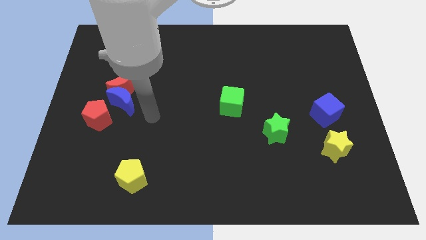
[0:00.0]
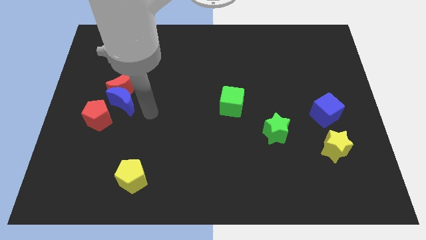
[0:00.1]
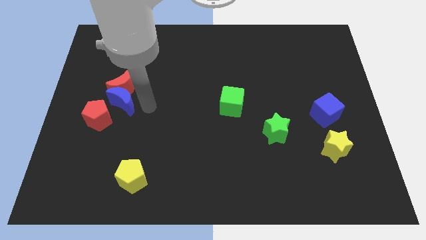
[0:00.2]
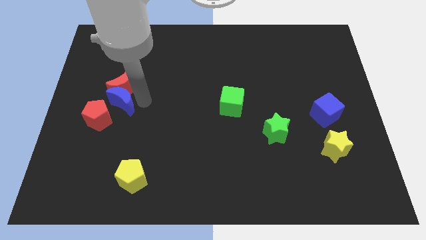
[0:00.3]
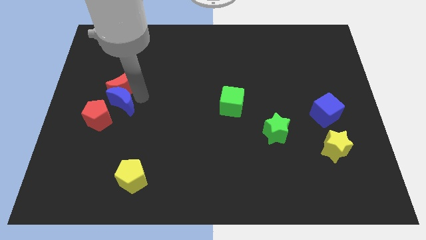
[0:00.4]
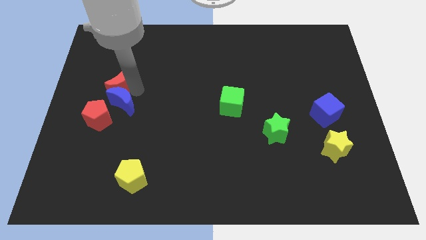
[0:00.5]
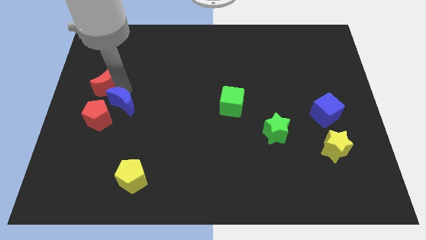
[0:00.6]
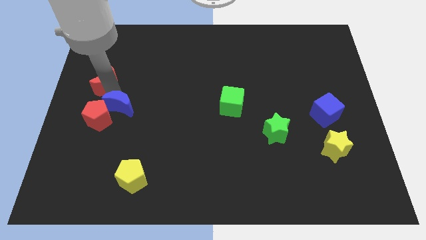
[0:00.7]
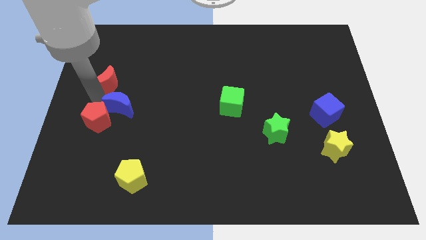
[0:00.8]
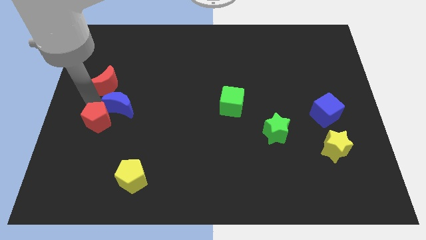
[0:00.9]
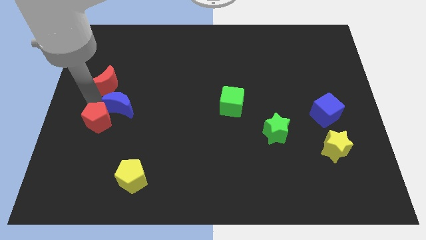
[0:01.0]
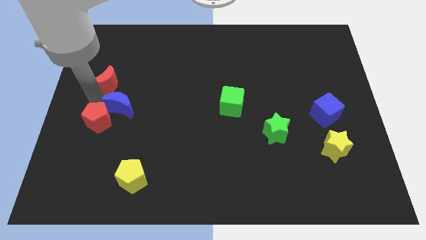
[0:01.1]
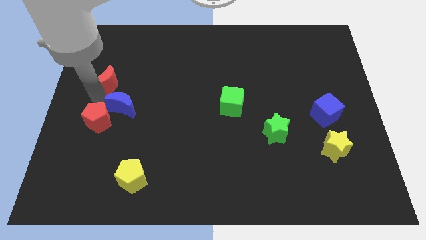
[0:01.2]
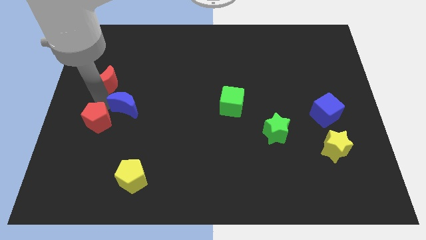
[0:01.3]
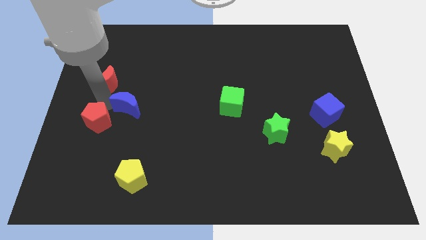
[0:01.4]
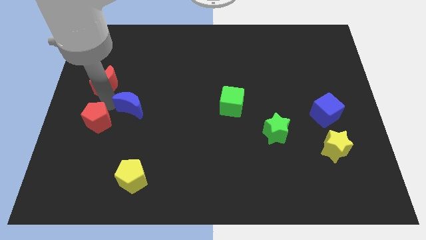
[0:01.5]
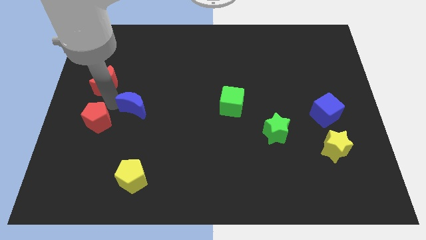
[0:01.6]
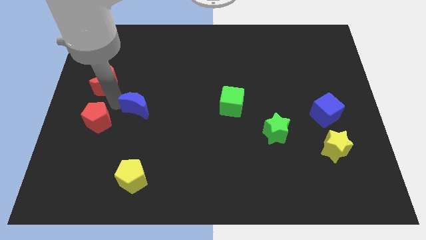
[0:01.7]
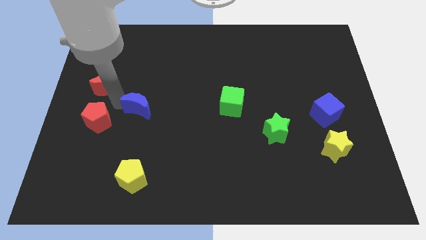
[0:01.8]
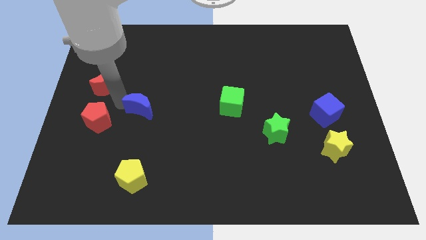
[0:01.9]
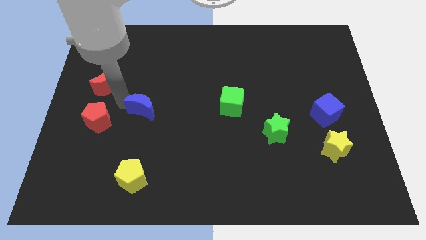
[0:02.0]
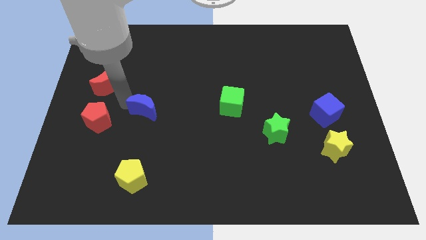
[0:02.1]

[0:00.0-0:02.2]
separate the blue moon from the red moon and red pentagon

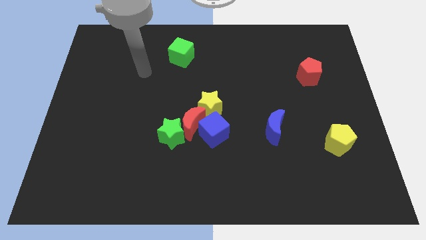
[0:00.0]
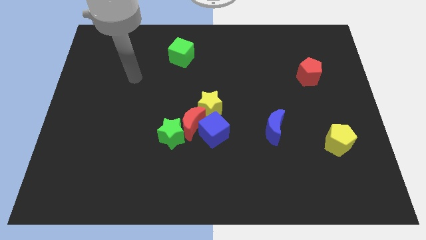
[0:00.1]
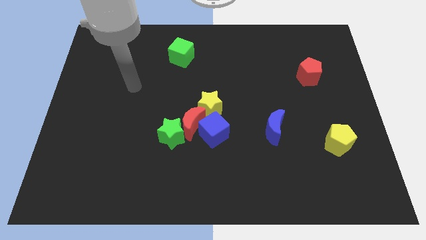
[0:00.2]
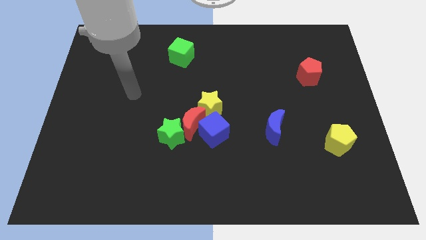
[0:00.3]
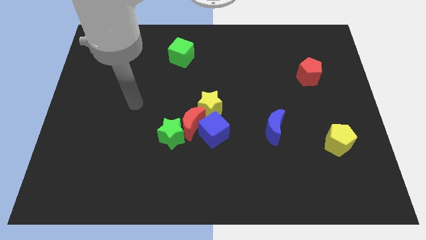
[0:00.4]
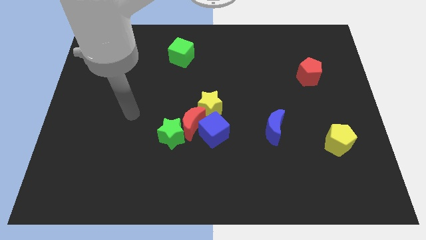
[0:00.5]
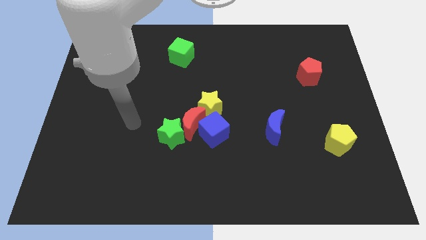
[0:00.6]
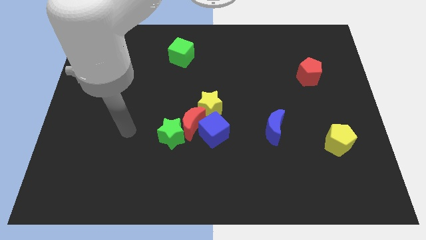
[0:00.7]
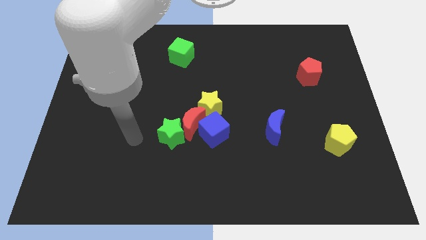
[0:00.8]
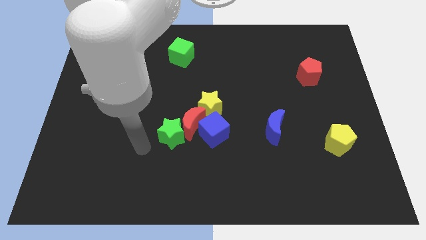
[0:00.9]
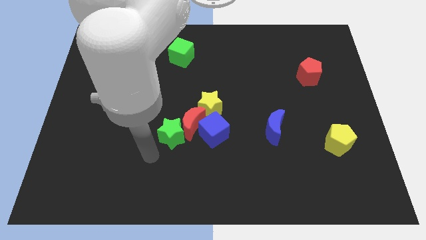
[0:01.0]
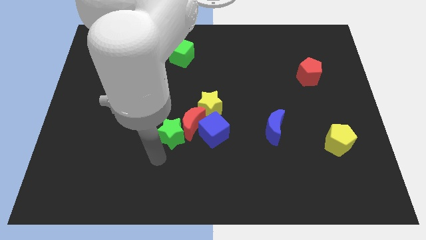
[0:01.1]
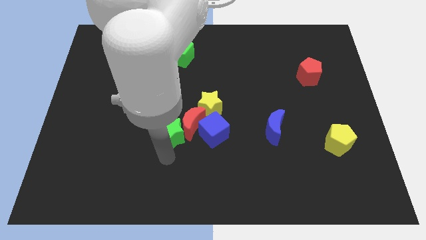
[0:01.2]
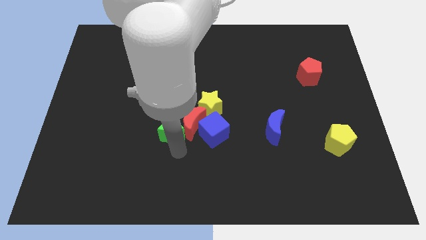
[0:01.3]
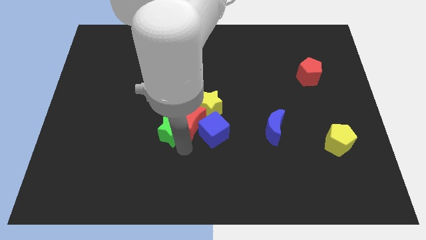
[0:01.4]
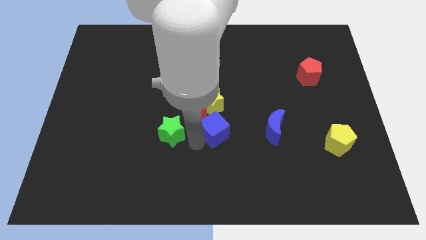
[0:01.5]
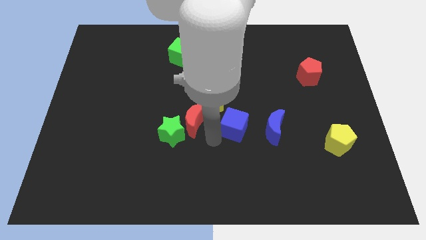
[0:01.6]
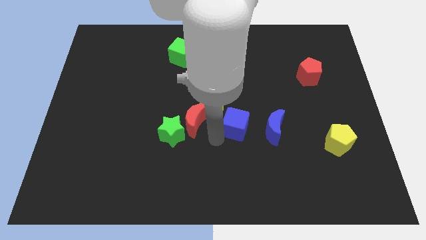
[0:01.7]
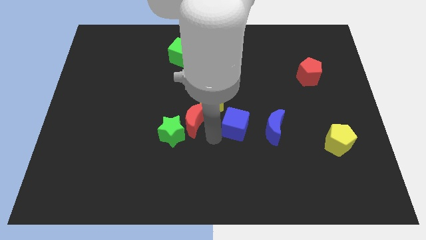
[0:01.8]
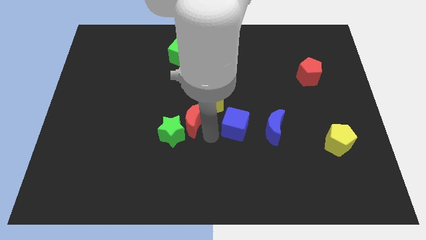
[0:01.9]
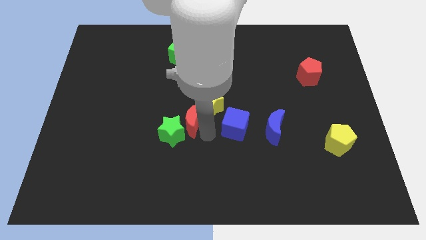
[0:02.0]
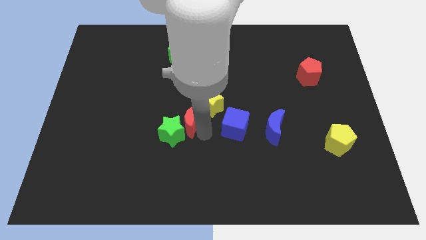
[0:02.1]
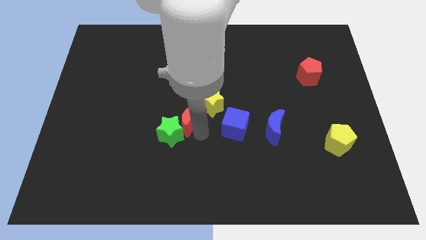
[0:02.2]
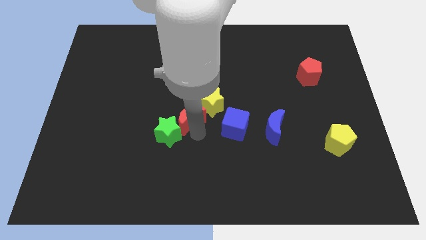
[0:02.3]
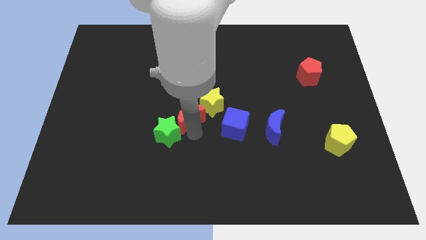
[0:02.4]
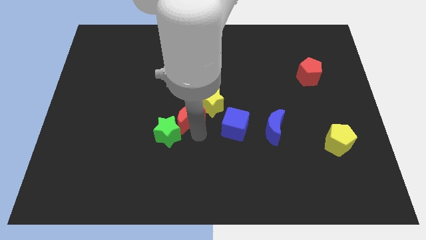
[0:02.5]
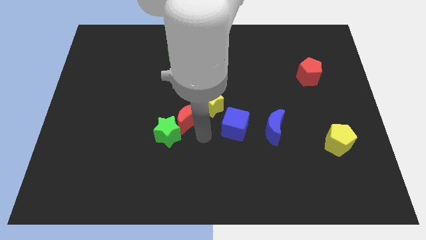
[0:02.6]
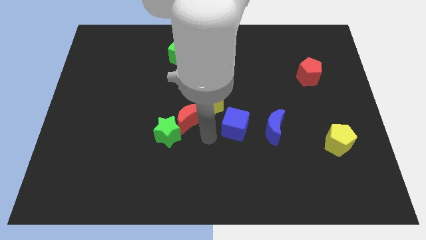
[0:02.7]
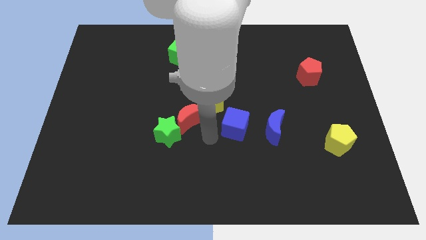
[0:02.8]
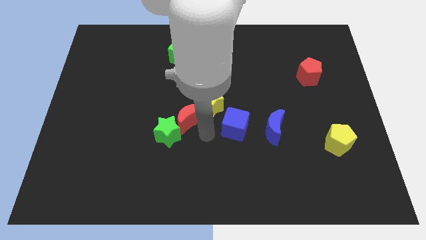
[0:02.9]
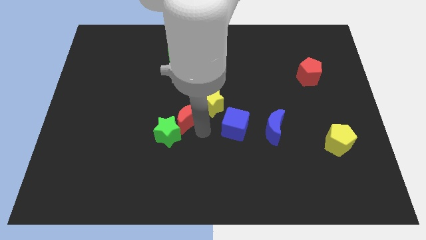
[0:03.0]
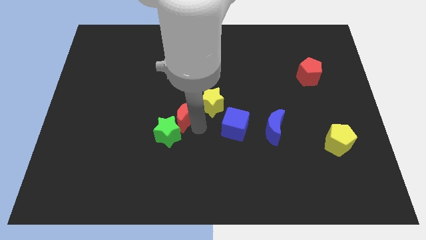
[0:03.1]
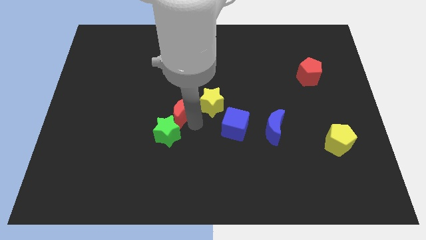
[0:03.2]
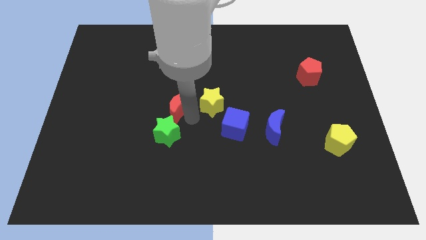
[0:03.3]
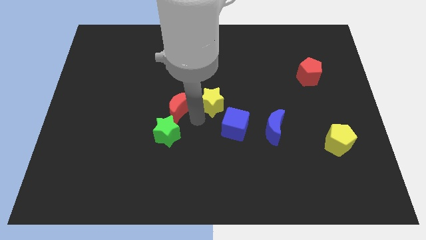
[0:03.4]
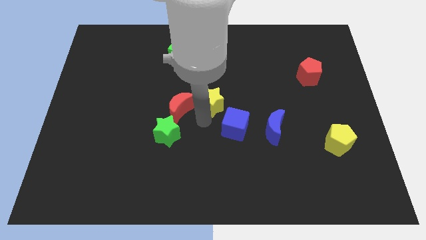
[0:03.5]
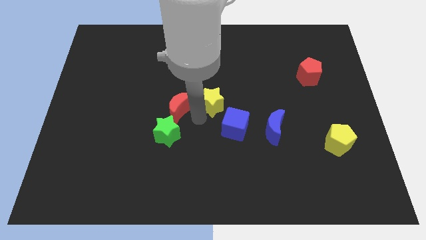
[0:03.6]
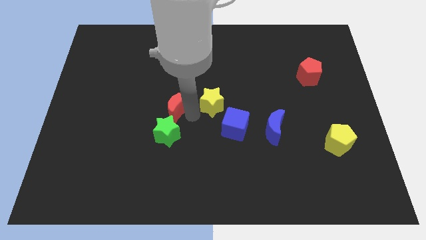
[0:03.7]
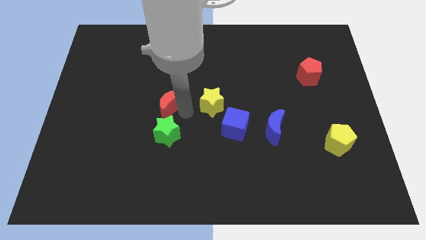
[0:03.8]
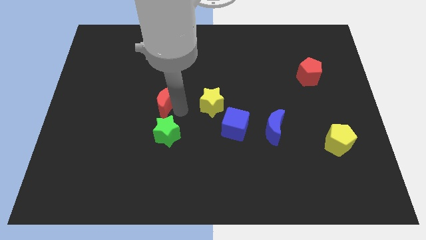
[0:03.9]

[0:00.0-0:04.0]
move the red moon away from the green star, blue cube, and yellow star

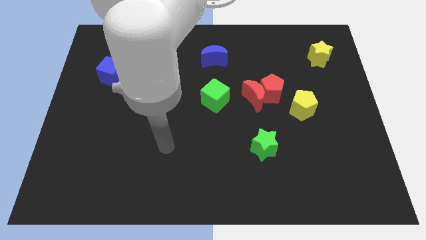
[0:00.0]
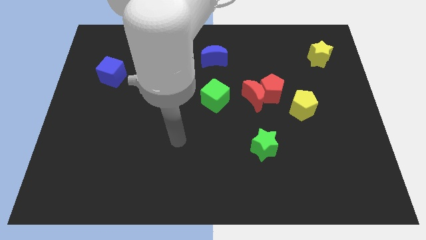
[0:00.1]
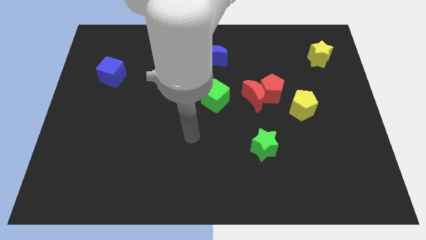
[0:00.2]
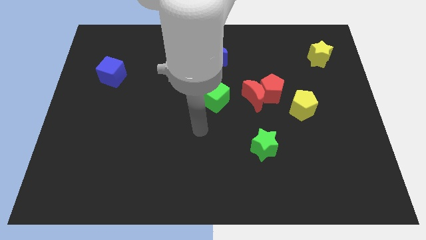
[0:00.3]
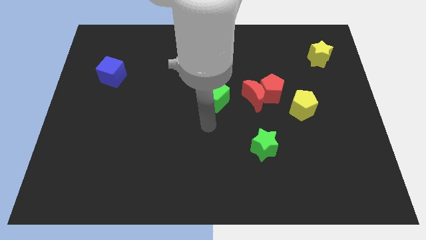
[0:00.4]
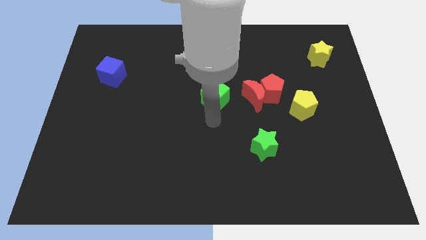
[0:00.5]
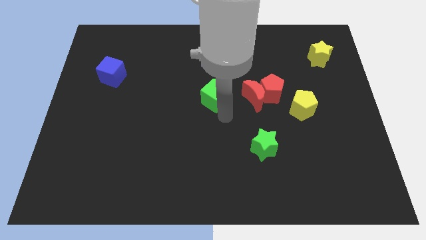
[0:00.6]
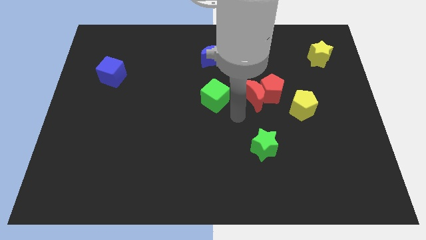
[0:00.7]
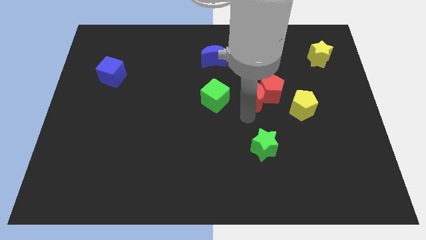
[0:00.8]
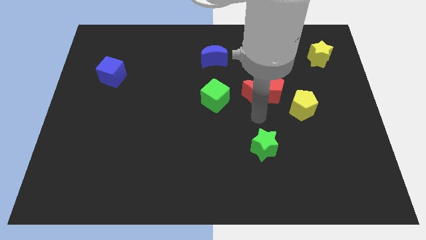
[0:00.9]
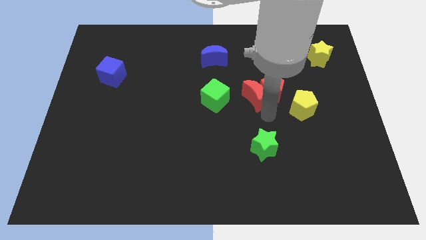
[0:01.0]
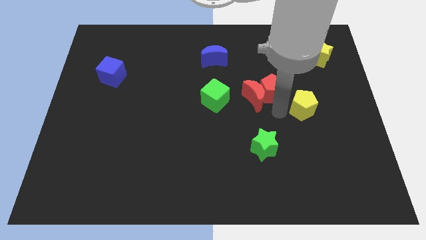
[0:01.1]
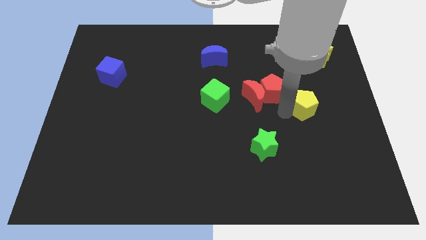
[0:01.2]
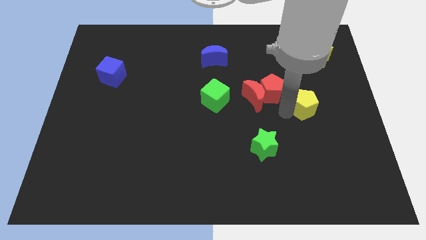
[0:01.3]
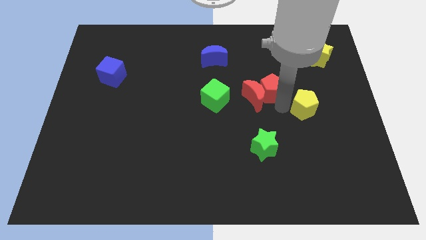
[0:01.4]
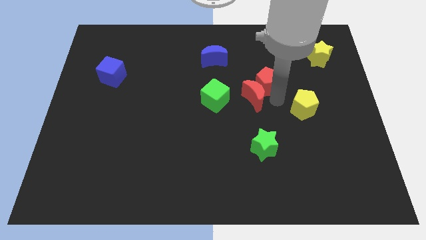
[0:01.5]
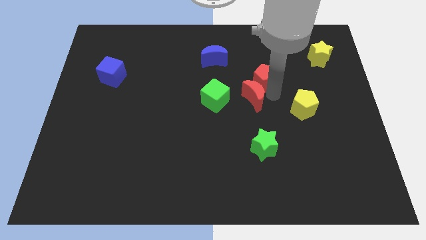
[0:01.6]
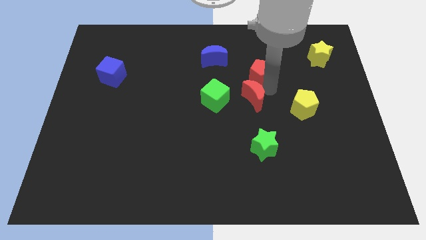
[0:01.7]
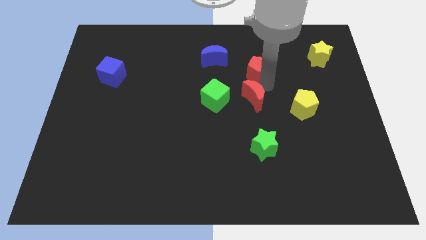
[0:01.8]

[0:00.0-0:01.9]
pull the red pentagon apart from the red moon and yellow pentagon

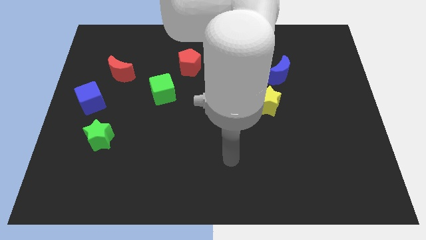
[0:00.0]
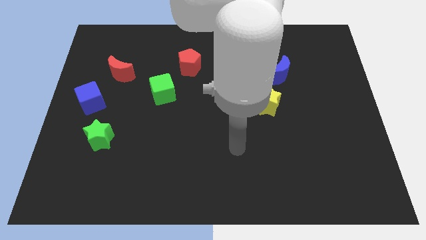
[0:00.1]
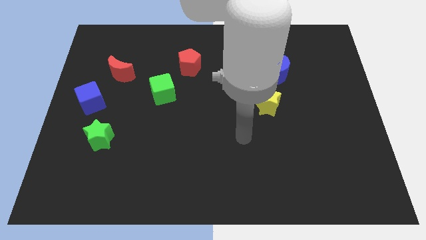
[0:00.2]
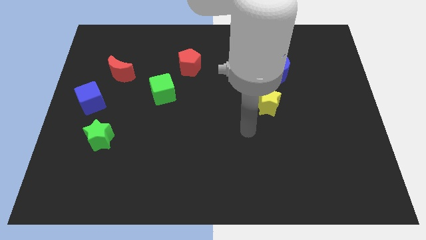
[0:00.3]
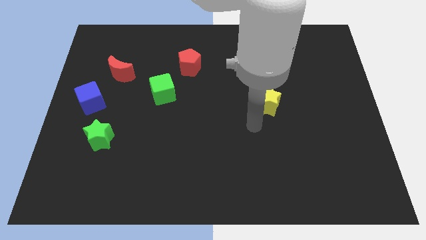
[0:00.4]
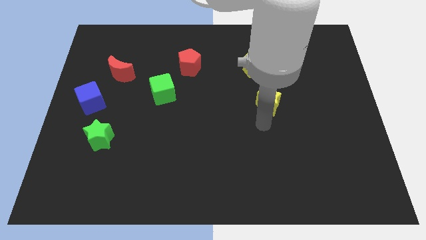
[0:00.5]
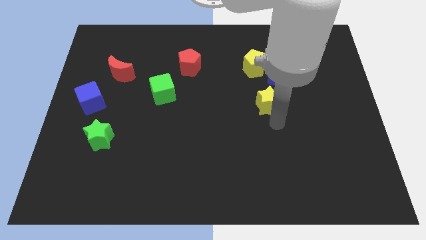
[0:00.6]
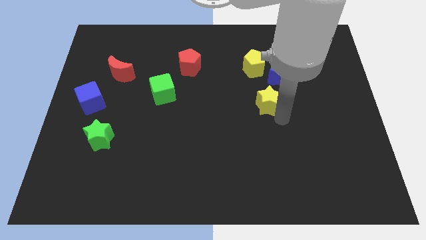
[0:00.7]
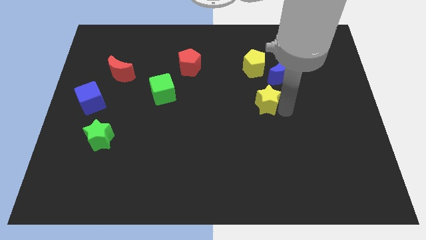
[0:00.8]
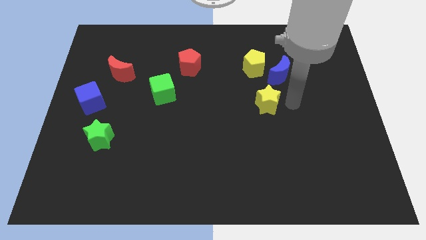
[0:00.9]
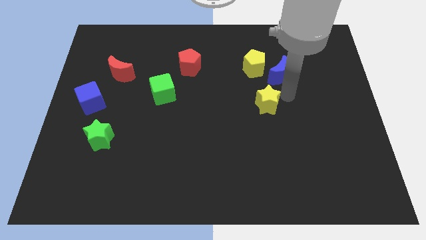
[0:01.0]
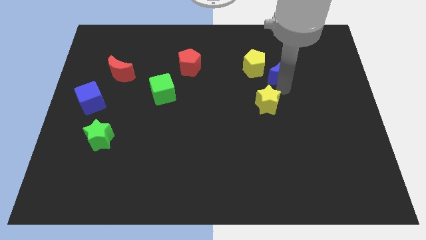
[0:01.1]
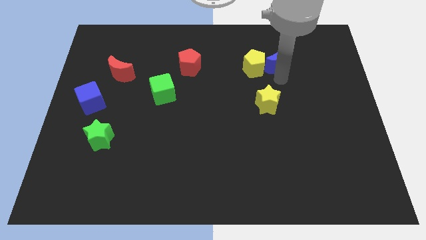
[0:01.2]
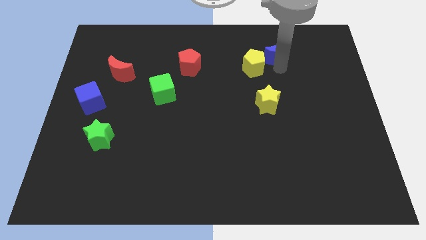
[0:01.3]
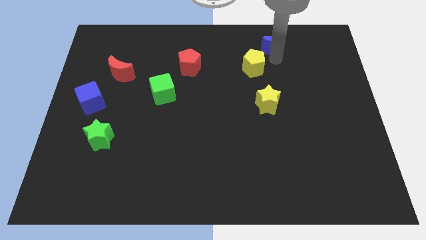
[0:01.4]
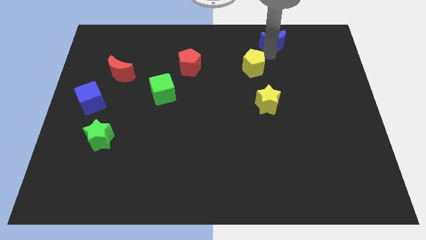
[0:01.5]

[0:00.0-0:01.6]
separate the yellow pentagon from the blue moon
